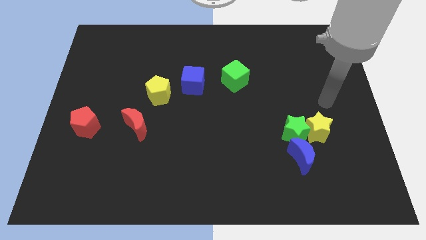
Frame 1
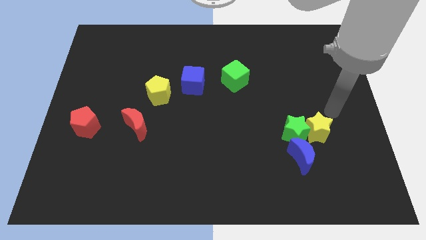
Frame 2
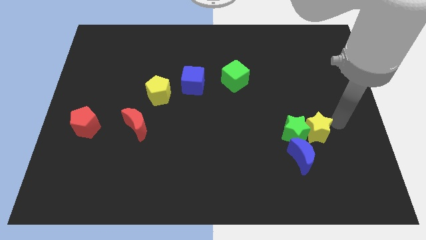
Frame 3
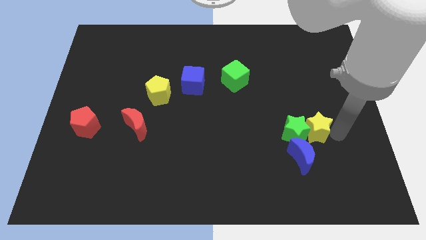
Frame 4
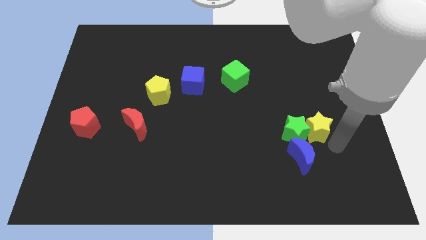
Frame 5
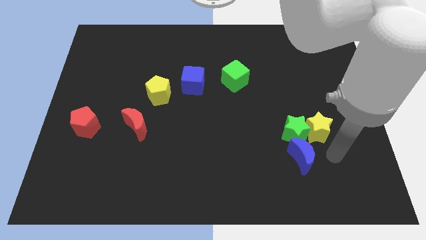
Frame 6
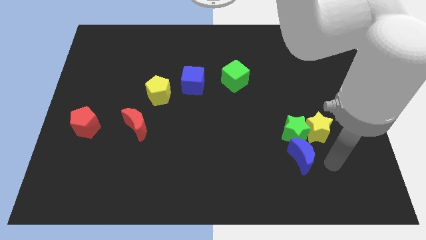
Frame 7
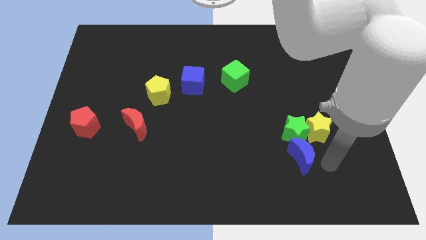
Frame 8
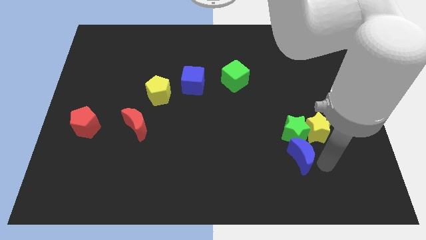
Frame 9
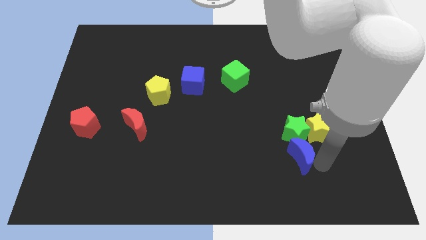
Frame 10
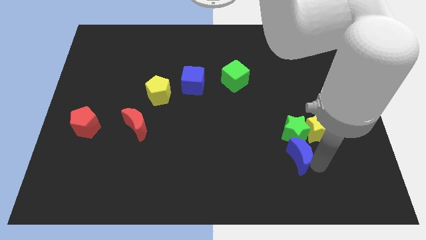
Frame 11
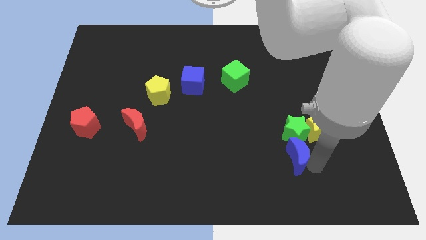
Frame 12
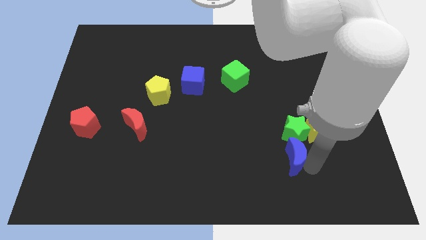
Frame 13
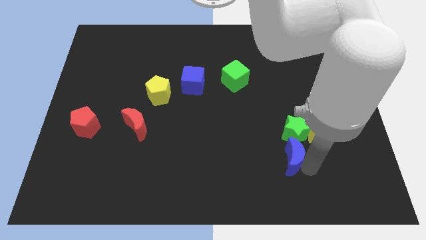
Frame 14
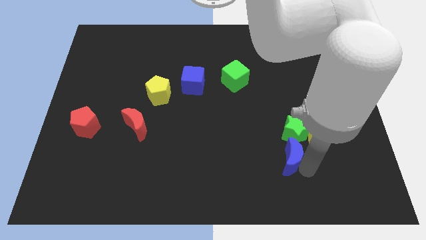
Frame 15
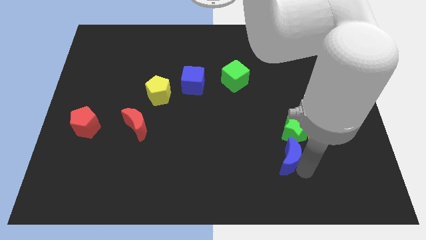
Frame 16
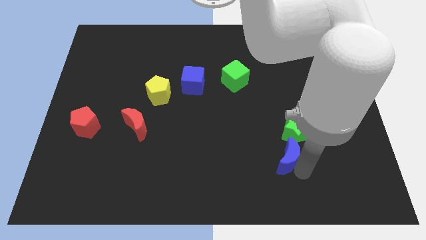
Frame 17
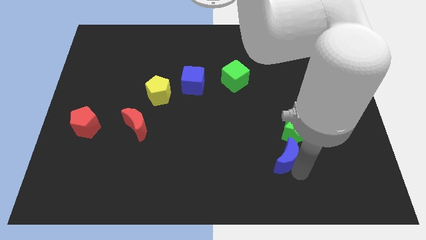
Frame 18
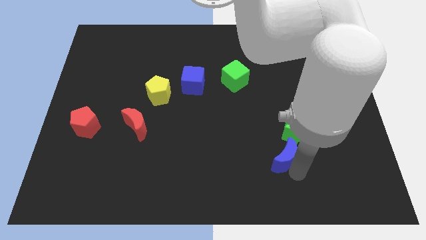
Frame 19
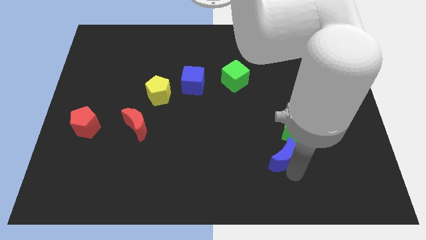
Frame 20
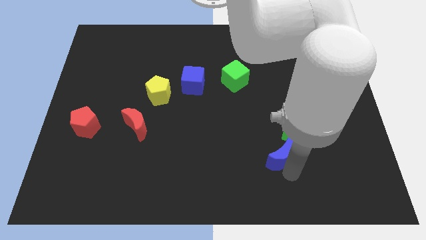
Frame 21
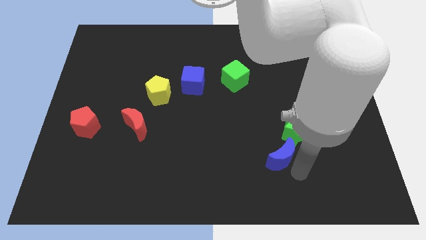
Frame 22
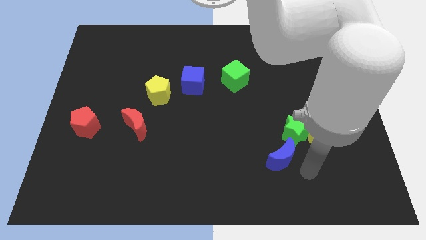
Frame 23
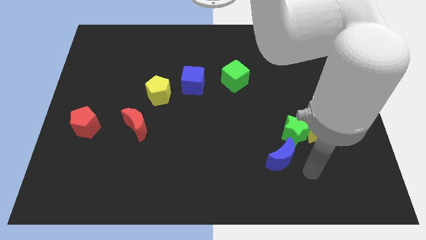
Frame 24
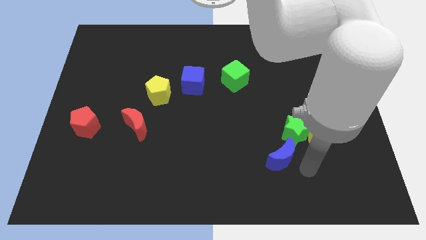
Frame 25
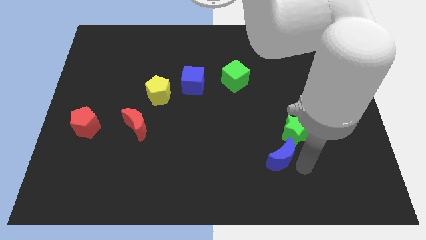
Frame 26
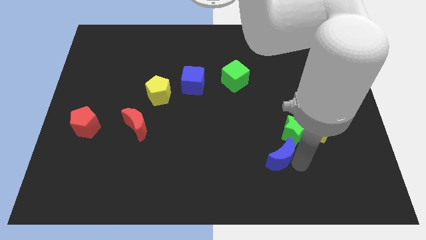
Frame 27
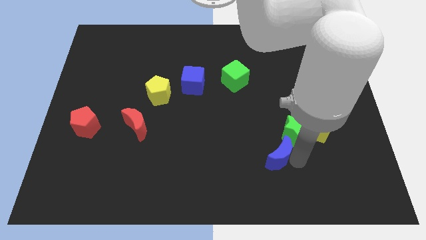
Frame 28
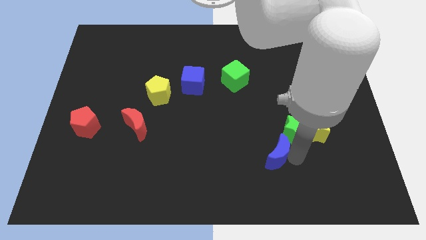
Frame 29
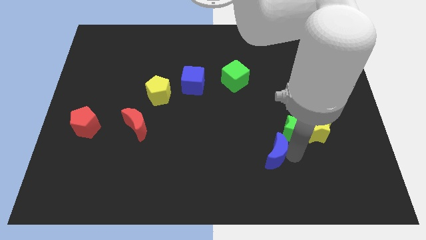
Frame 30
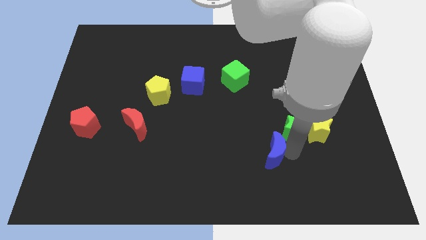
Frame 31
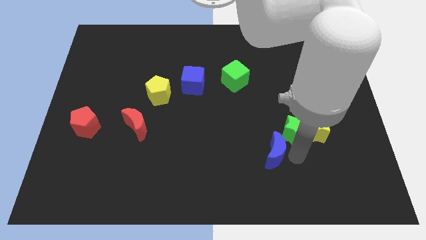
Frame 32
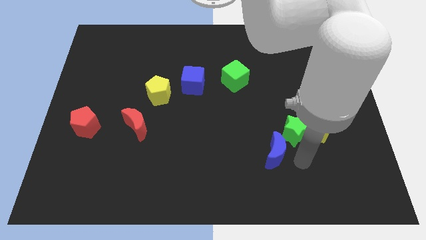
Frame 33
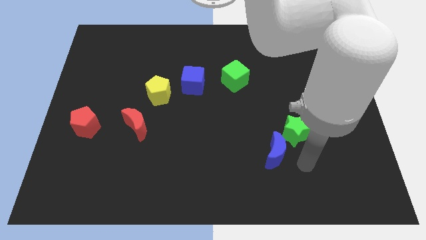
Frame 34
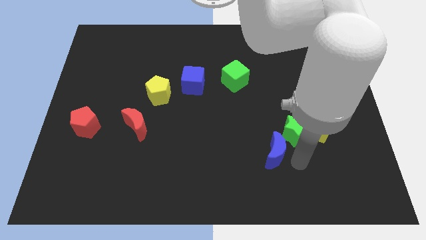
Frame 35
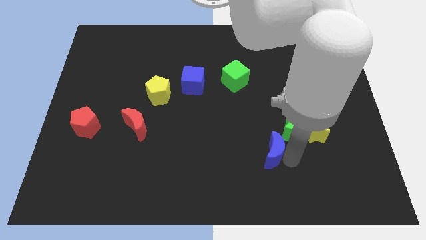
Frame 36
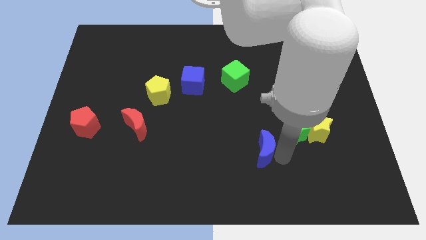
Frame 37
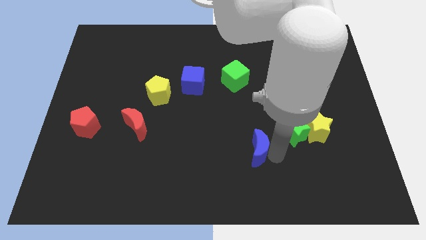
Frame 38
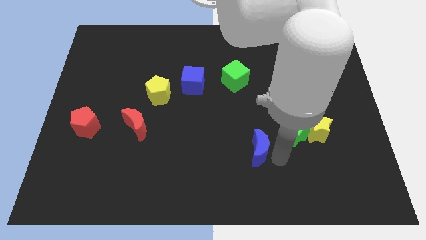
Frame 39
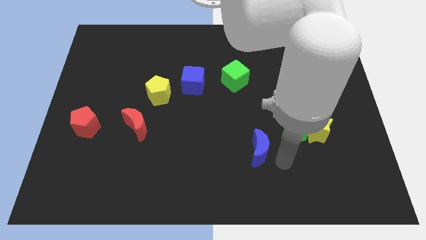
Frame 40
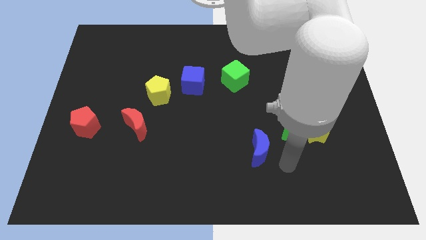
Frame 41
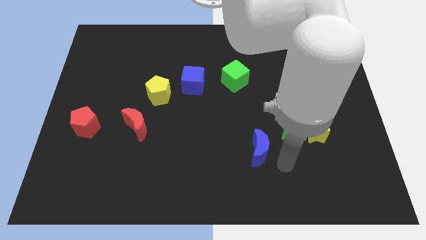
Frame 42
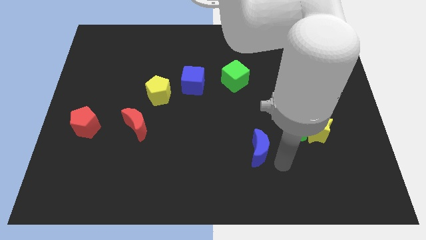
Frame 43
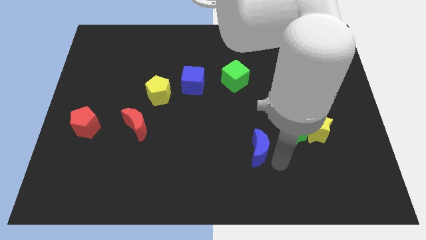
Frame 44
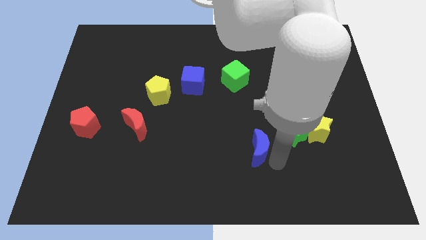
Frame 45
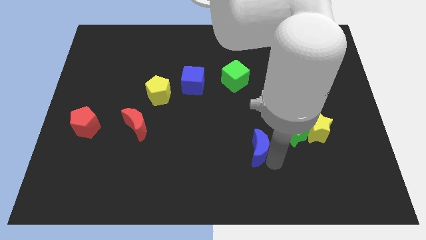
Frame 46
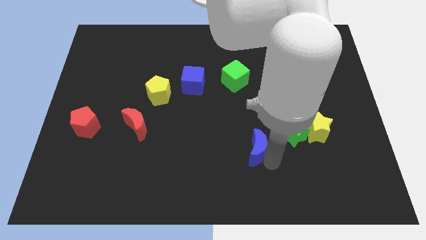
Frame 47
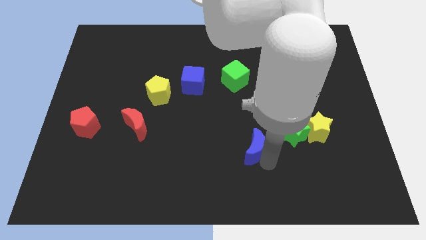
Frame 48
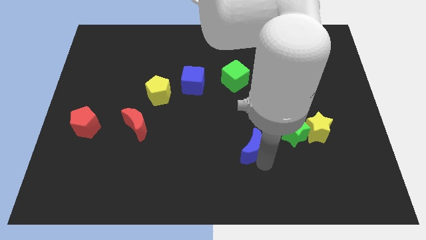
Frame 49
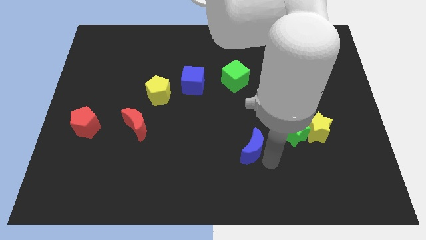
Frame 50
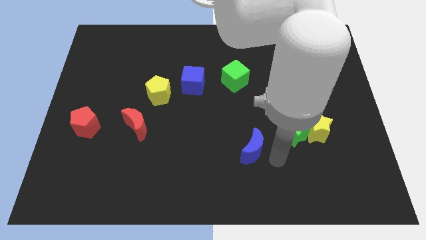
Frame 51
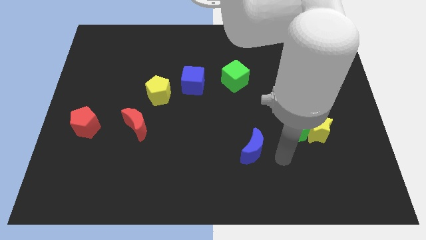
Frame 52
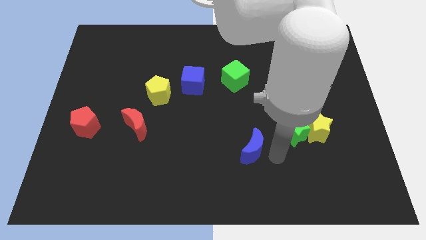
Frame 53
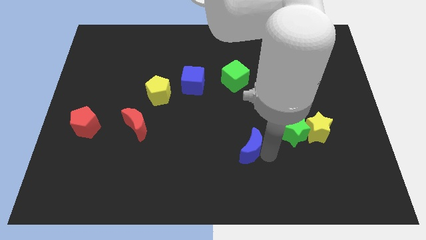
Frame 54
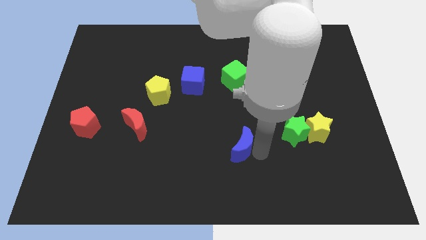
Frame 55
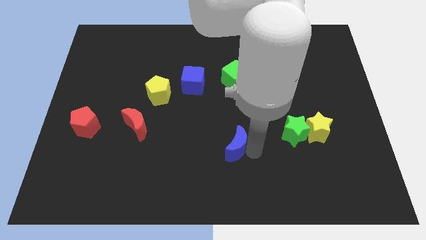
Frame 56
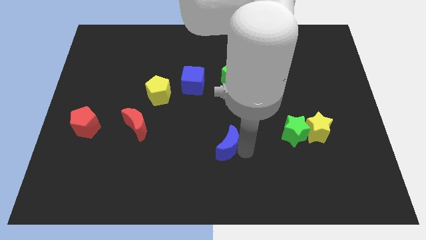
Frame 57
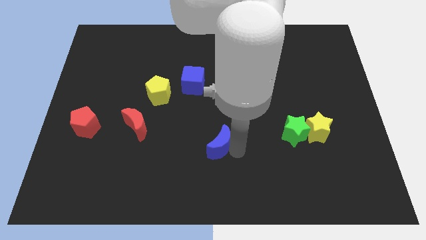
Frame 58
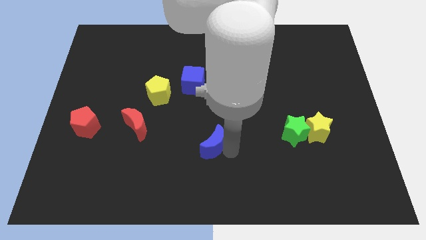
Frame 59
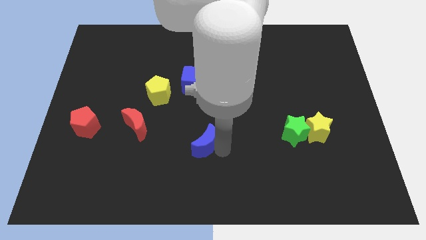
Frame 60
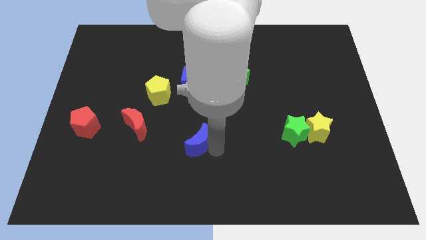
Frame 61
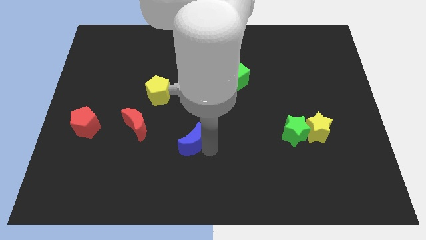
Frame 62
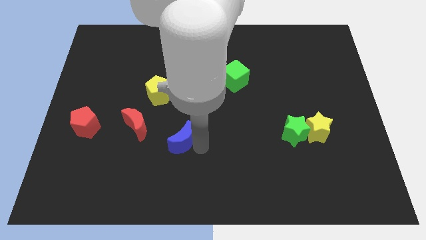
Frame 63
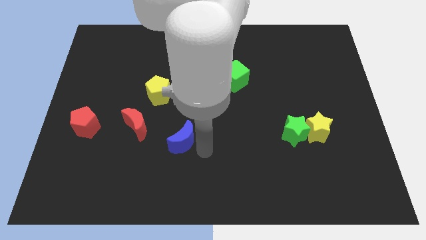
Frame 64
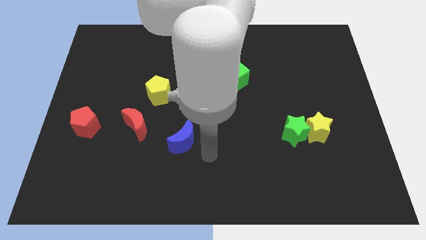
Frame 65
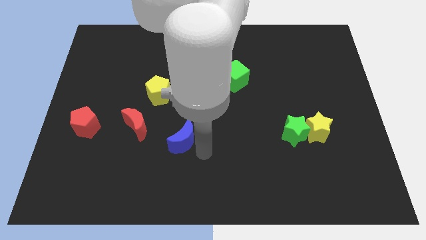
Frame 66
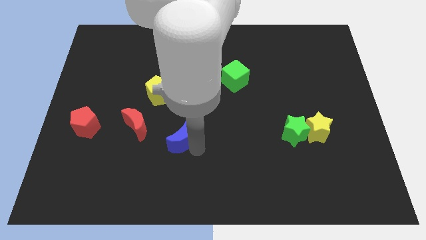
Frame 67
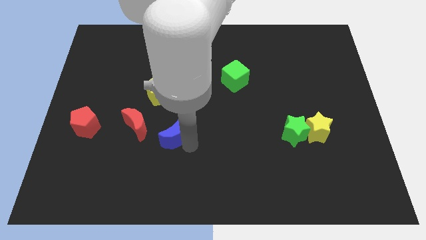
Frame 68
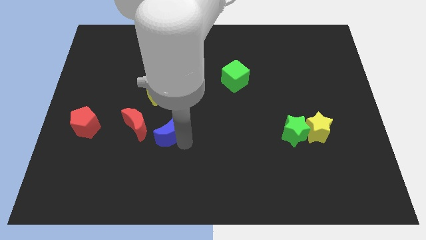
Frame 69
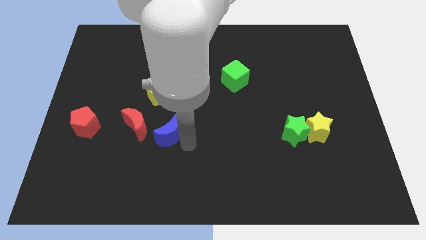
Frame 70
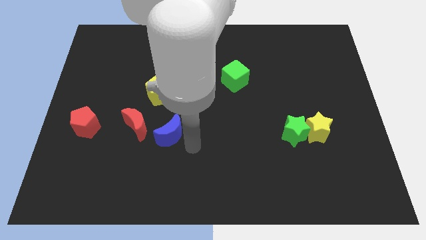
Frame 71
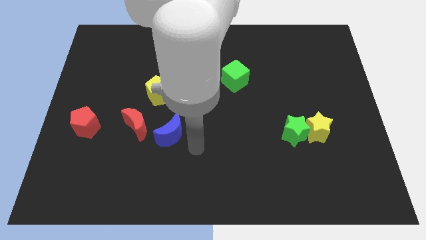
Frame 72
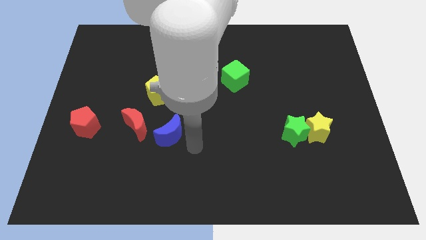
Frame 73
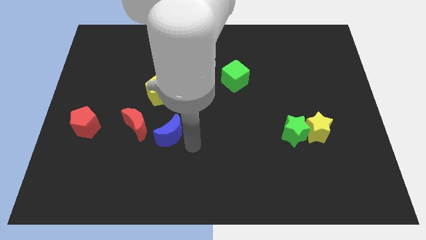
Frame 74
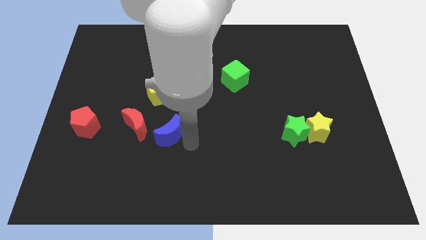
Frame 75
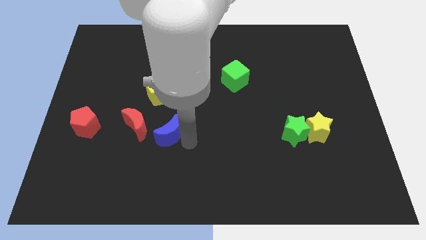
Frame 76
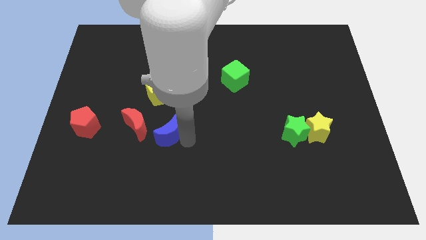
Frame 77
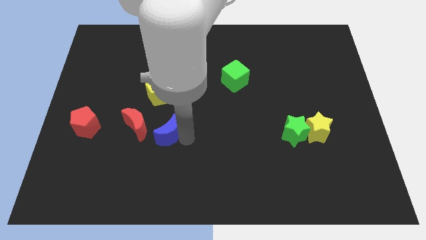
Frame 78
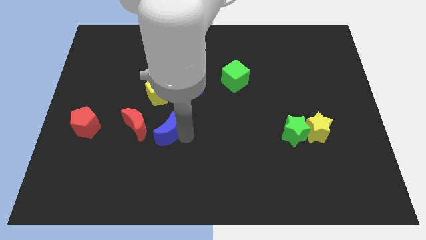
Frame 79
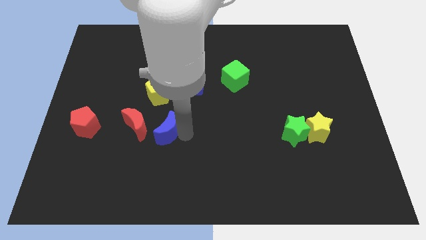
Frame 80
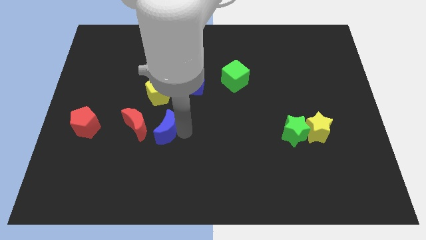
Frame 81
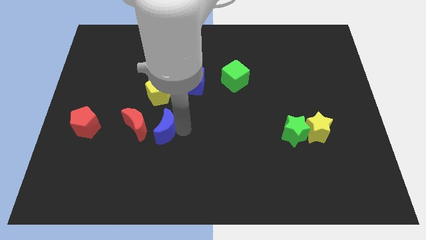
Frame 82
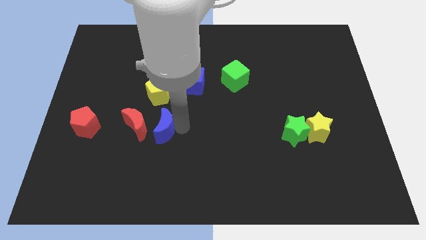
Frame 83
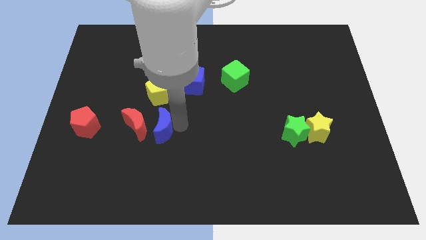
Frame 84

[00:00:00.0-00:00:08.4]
push the blue moon towards the red moon
